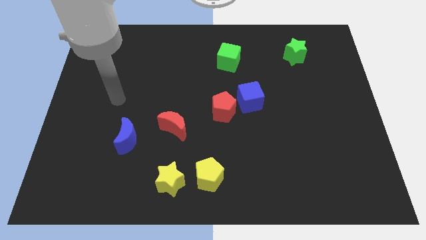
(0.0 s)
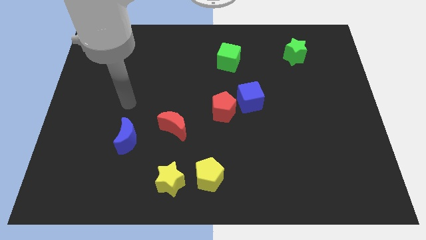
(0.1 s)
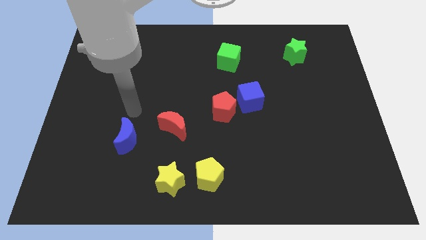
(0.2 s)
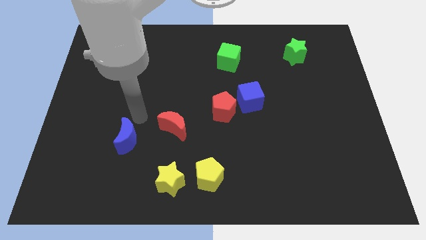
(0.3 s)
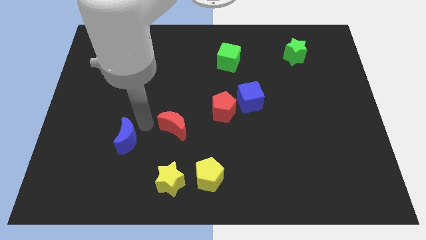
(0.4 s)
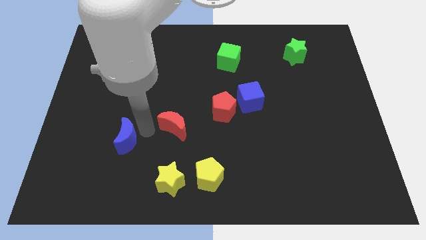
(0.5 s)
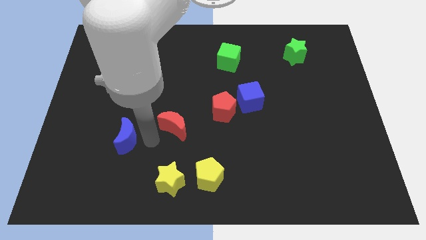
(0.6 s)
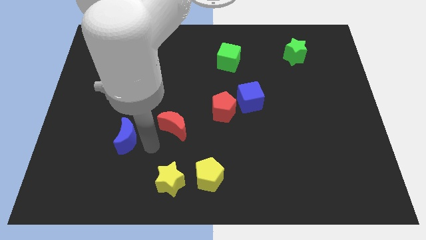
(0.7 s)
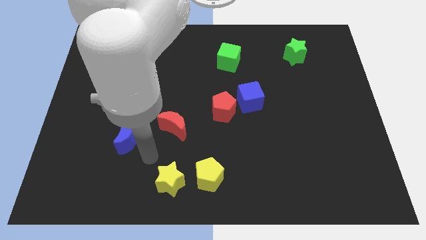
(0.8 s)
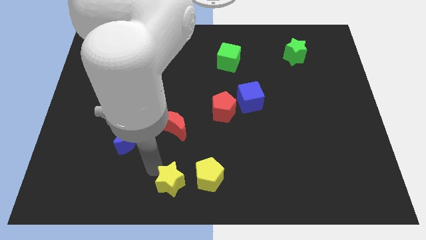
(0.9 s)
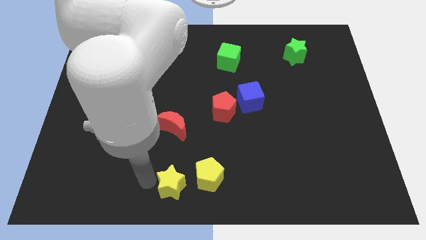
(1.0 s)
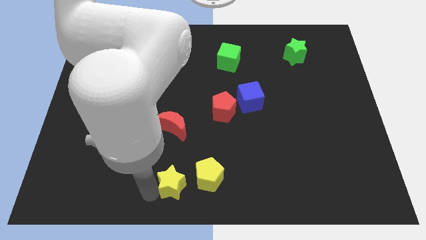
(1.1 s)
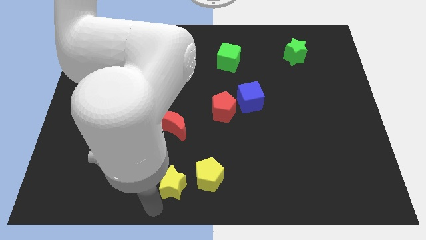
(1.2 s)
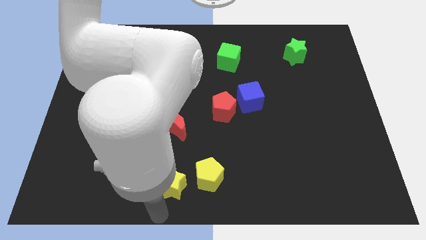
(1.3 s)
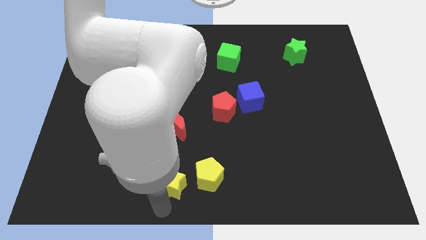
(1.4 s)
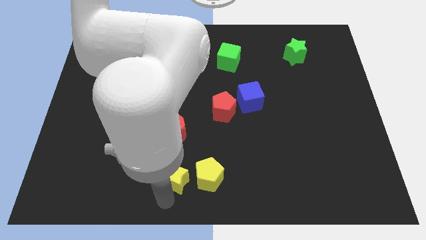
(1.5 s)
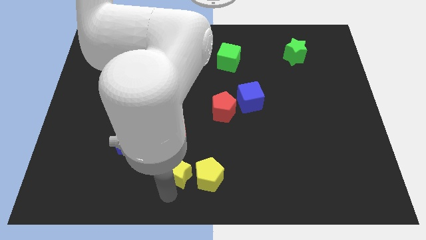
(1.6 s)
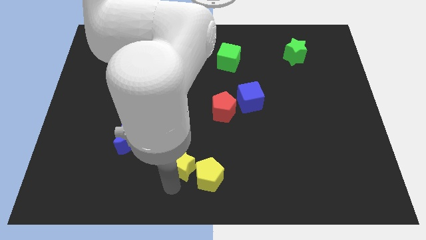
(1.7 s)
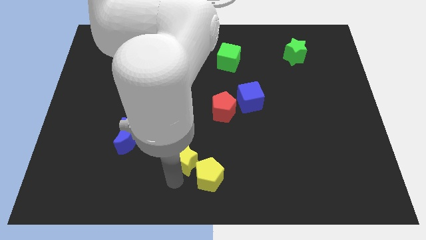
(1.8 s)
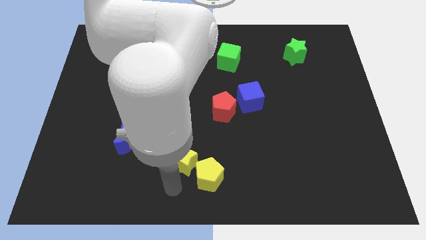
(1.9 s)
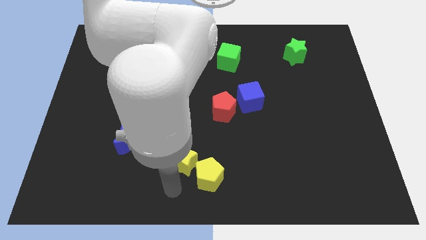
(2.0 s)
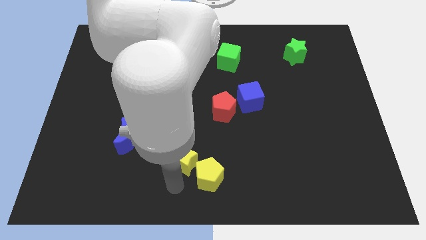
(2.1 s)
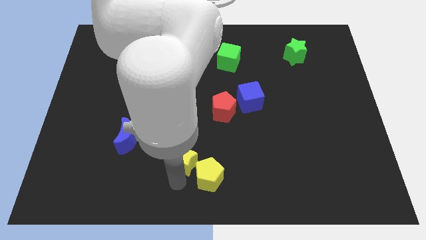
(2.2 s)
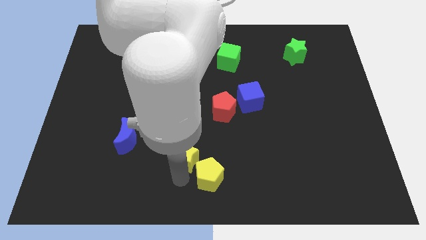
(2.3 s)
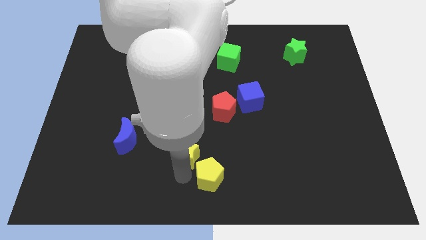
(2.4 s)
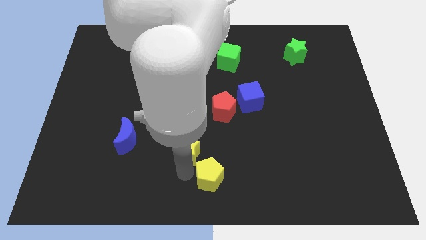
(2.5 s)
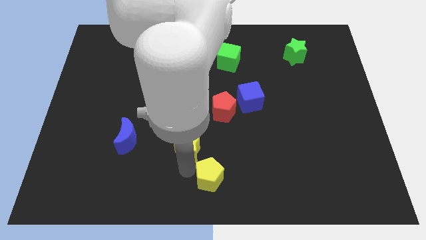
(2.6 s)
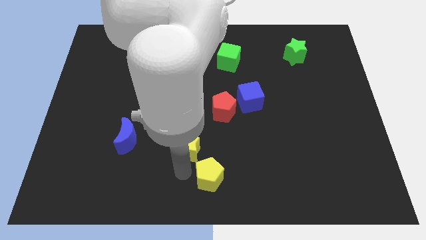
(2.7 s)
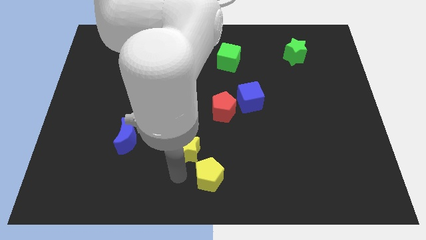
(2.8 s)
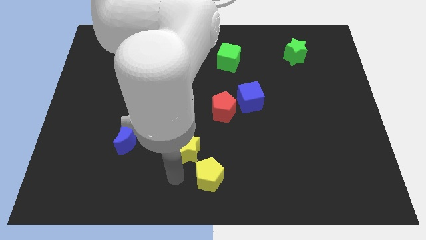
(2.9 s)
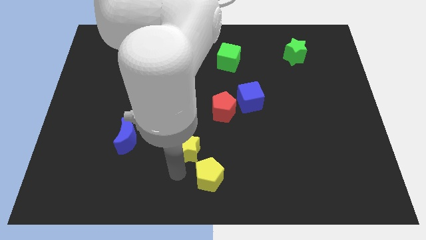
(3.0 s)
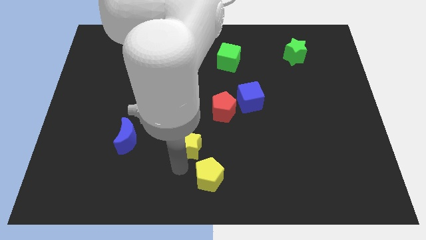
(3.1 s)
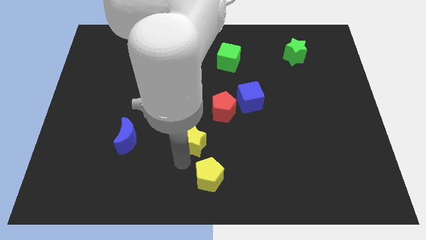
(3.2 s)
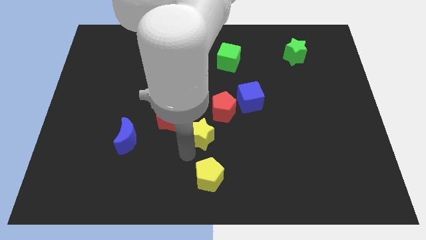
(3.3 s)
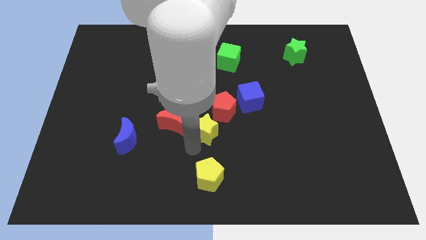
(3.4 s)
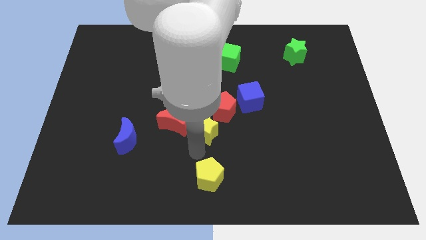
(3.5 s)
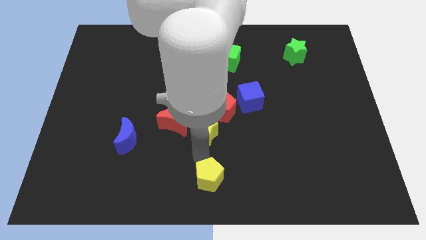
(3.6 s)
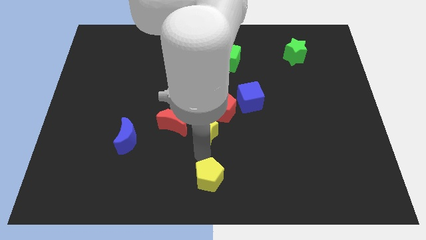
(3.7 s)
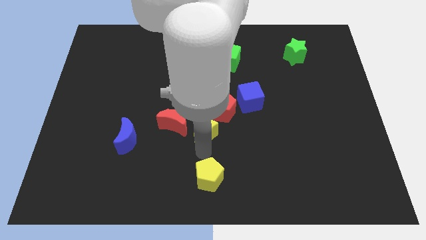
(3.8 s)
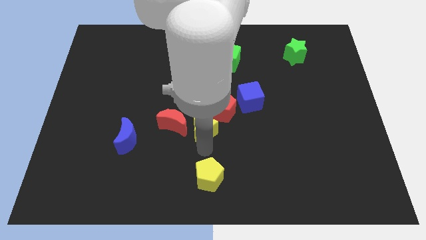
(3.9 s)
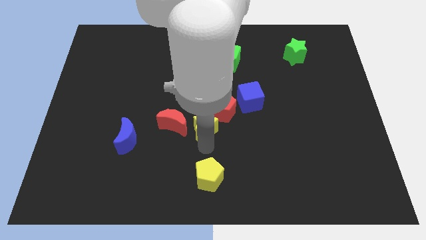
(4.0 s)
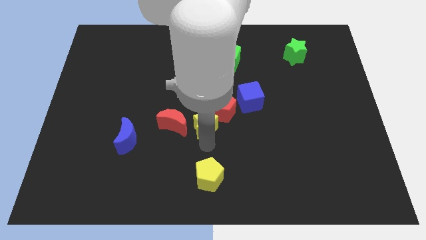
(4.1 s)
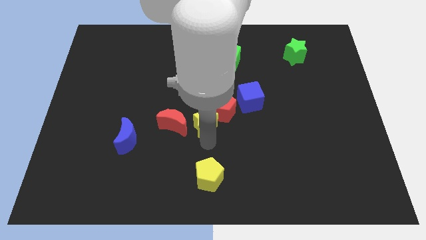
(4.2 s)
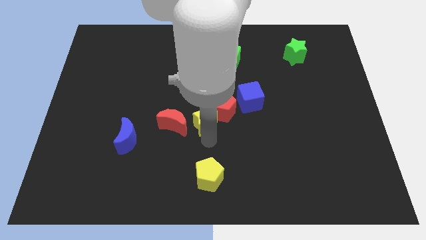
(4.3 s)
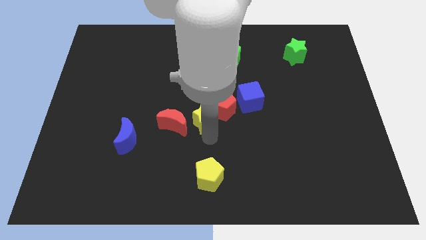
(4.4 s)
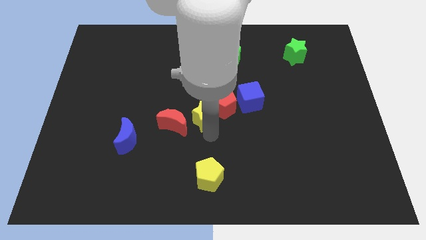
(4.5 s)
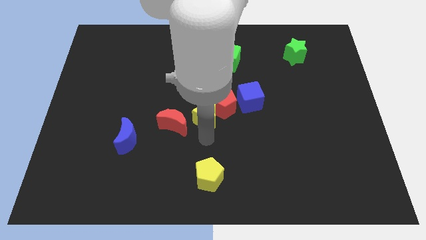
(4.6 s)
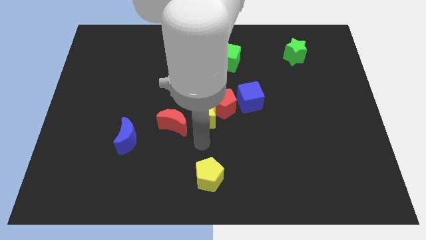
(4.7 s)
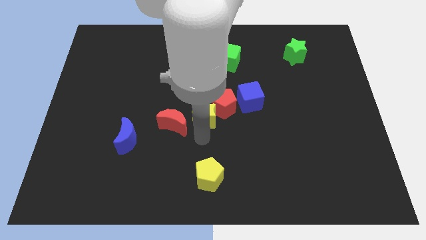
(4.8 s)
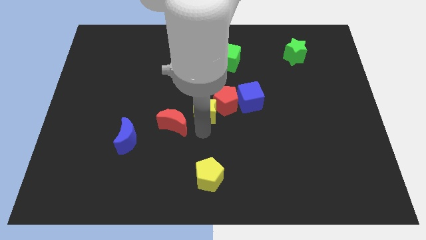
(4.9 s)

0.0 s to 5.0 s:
move the yellow star just left of the blue cube
